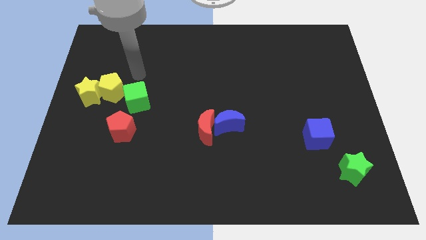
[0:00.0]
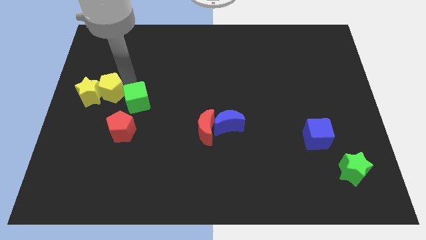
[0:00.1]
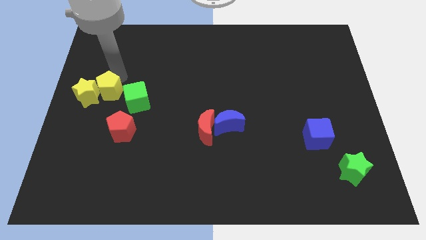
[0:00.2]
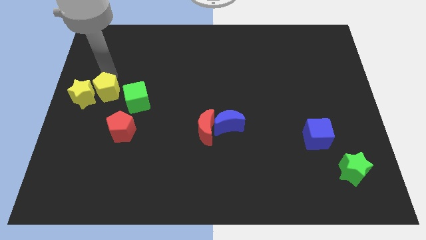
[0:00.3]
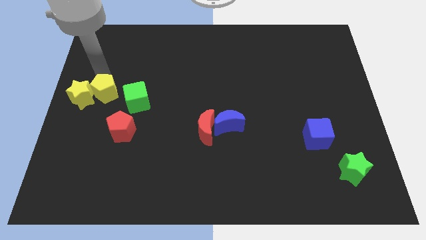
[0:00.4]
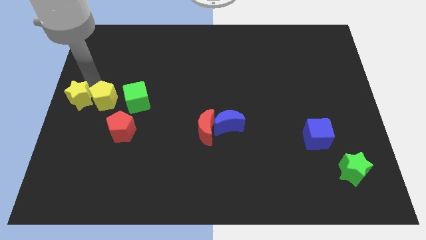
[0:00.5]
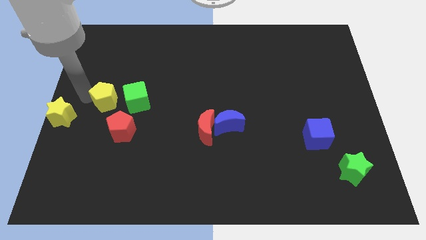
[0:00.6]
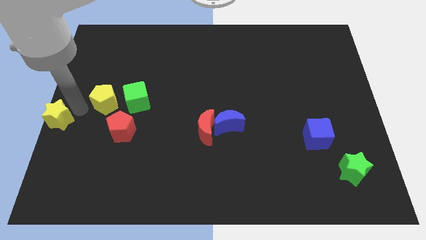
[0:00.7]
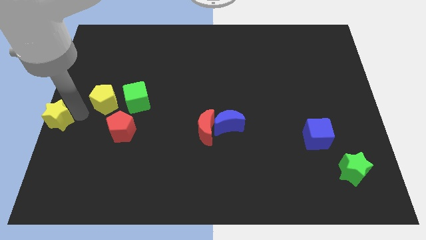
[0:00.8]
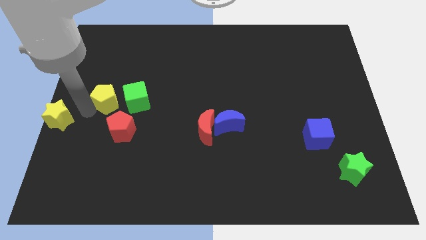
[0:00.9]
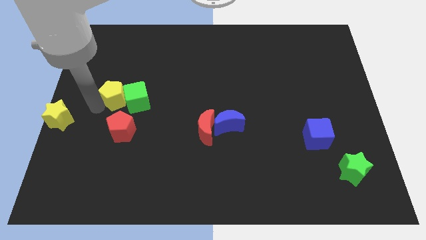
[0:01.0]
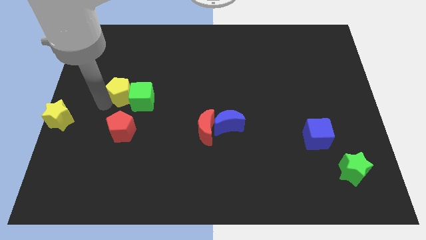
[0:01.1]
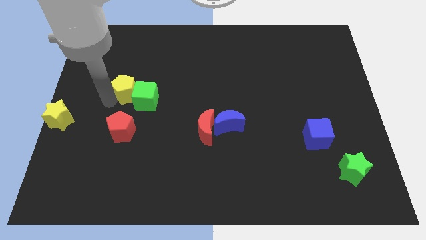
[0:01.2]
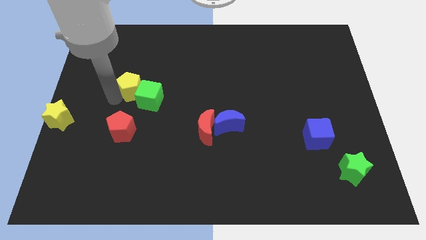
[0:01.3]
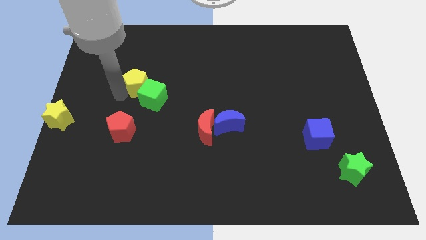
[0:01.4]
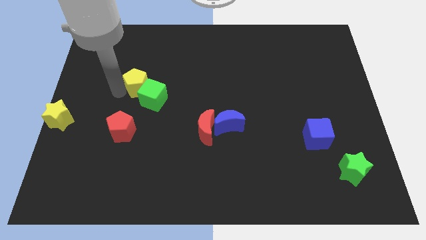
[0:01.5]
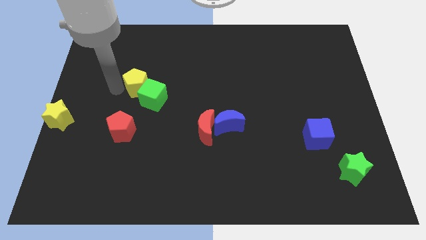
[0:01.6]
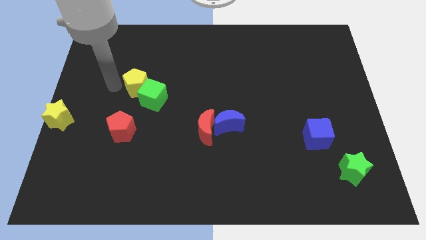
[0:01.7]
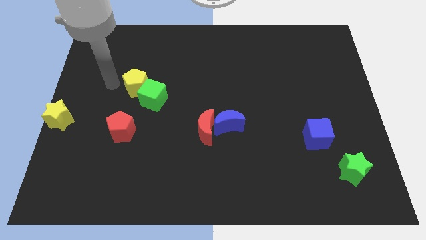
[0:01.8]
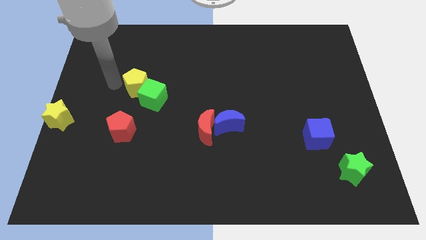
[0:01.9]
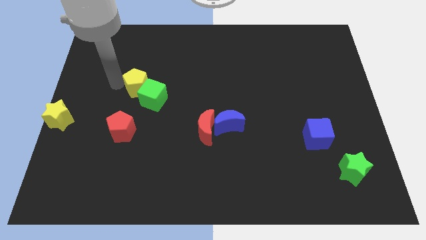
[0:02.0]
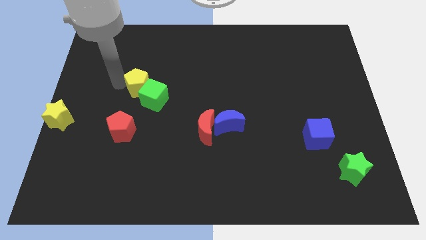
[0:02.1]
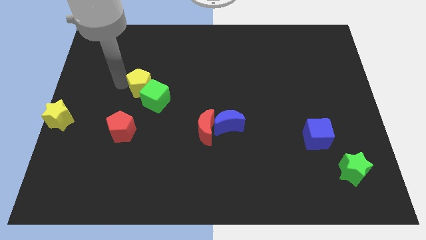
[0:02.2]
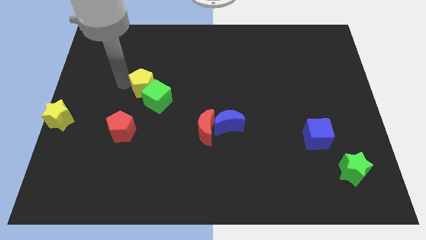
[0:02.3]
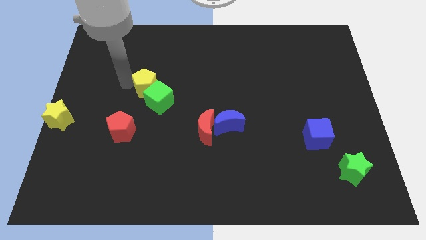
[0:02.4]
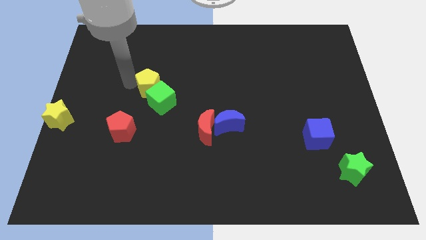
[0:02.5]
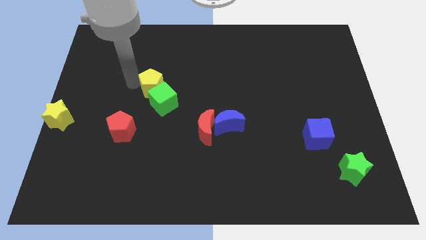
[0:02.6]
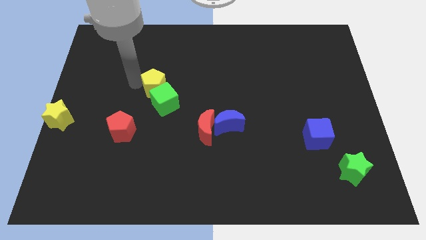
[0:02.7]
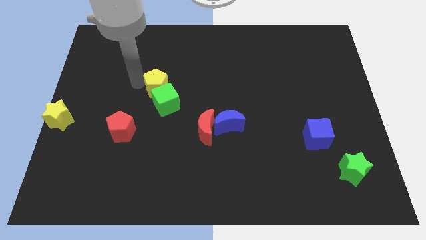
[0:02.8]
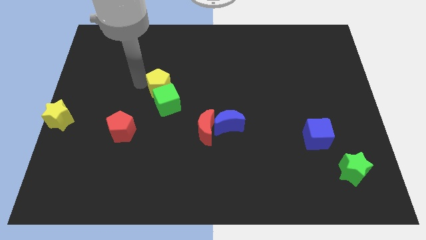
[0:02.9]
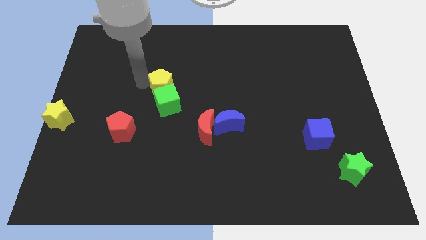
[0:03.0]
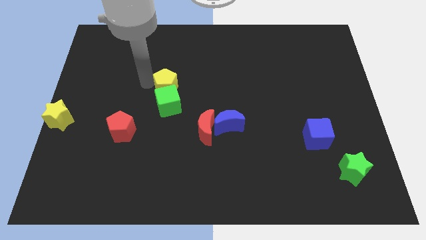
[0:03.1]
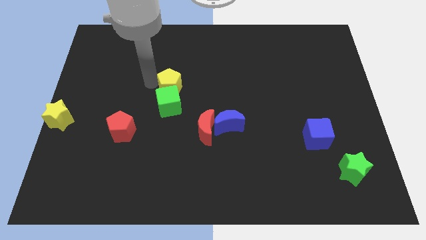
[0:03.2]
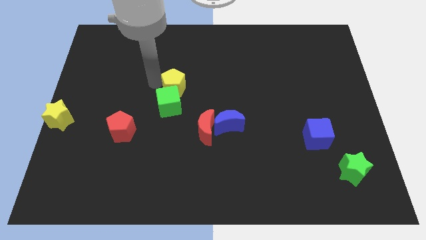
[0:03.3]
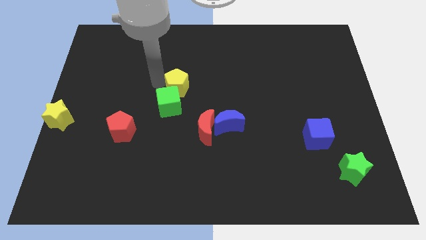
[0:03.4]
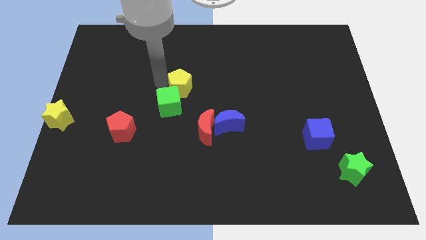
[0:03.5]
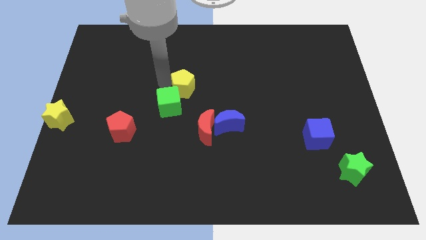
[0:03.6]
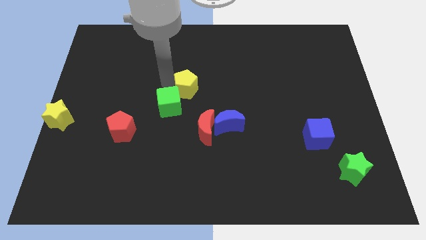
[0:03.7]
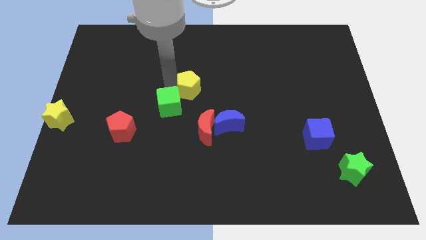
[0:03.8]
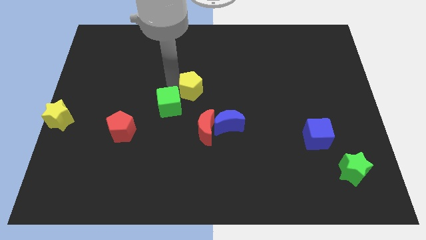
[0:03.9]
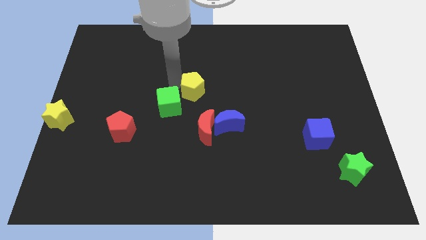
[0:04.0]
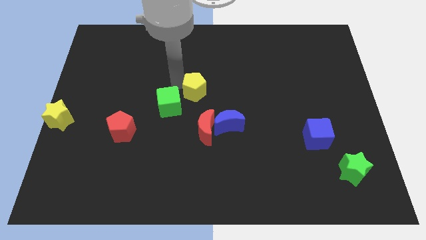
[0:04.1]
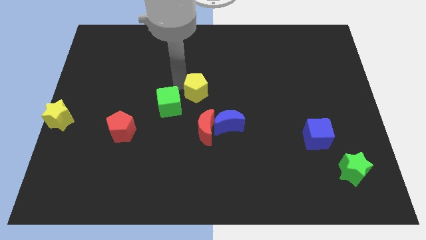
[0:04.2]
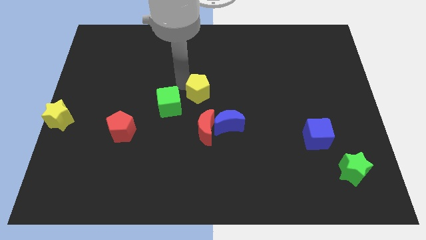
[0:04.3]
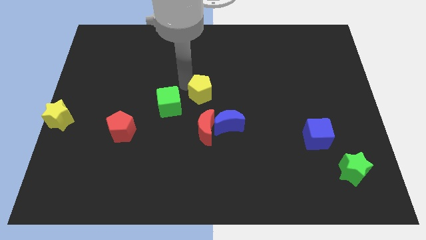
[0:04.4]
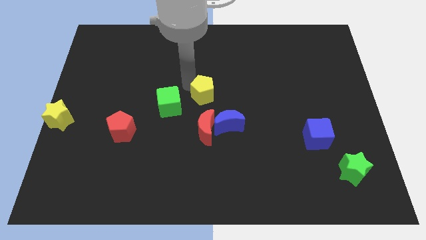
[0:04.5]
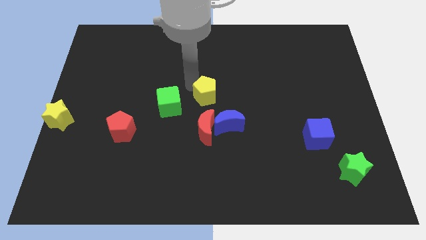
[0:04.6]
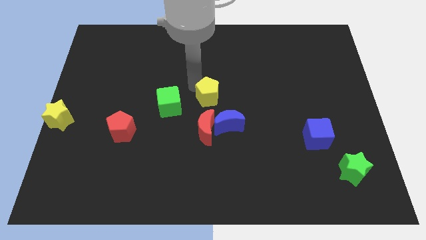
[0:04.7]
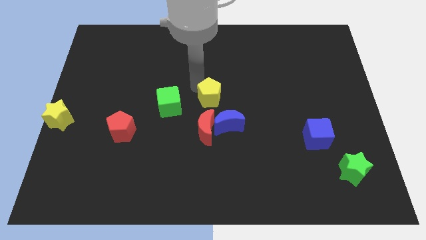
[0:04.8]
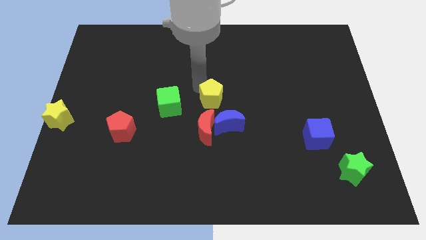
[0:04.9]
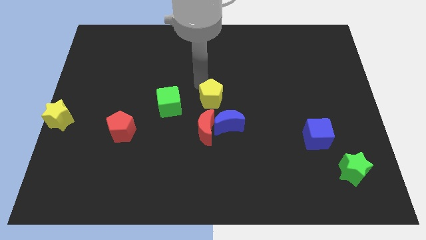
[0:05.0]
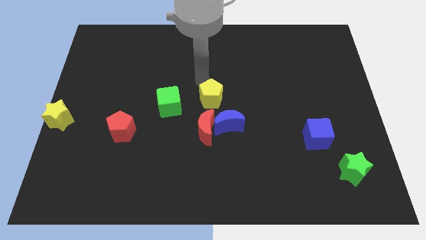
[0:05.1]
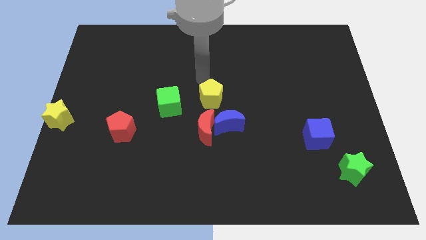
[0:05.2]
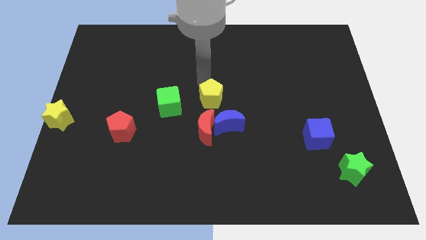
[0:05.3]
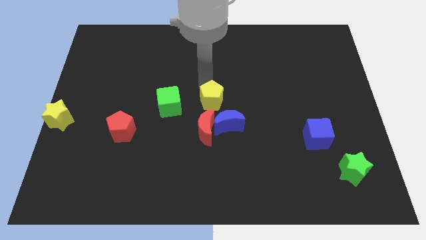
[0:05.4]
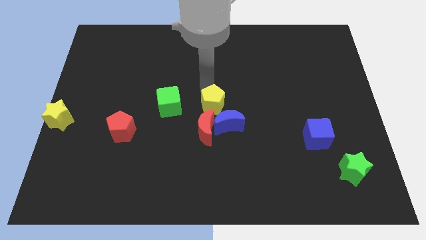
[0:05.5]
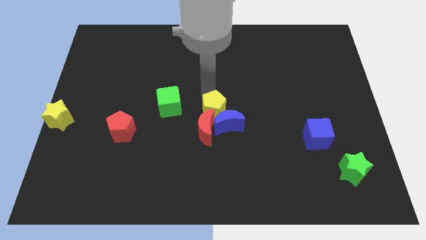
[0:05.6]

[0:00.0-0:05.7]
push the yellow pentagon close to the blue moon

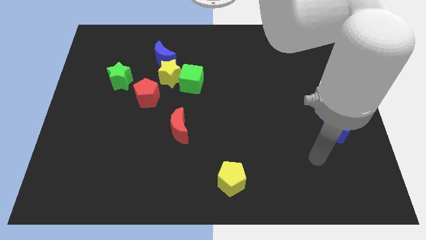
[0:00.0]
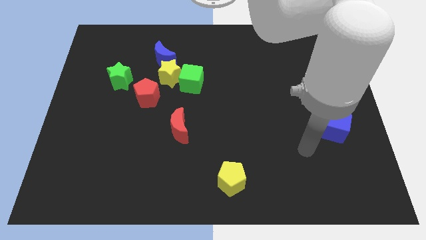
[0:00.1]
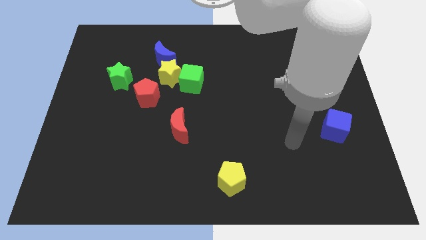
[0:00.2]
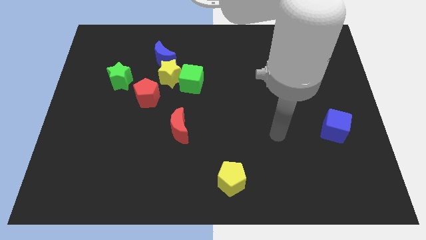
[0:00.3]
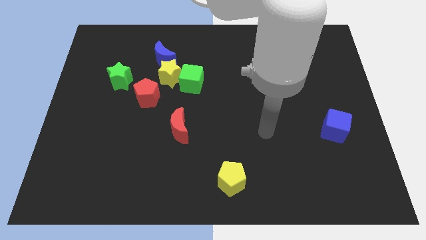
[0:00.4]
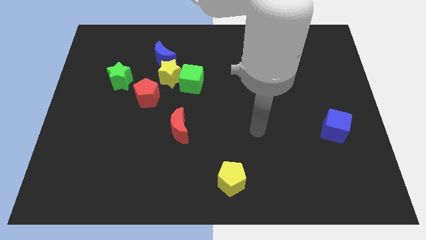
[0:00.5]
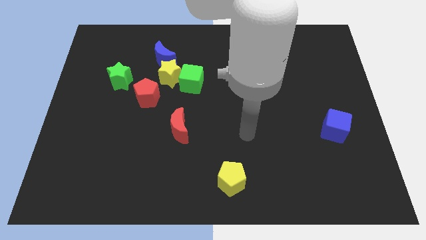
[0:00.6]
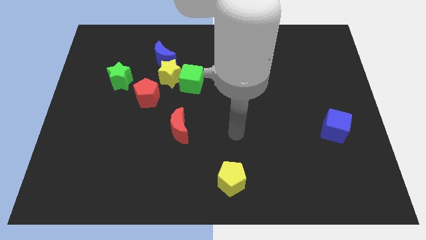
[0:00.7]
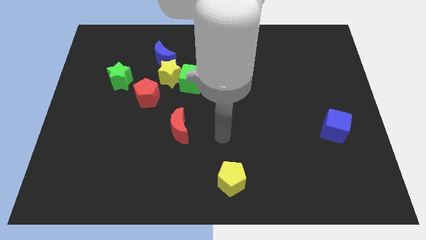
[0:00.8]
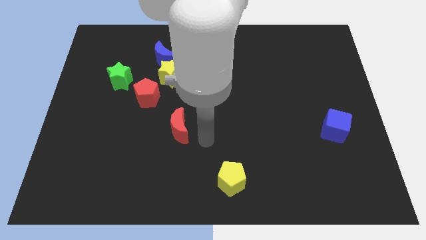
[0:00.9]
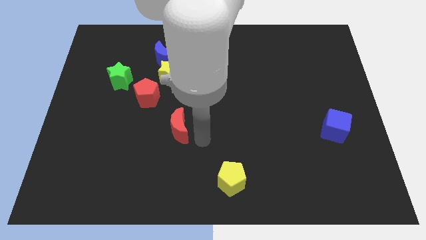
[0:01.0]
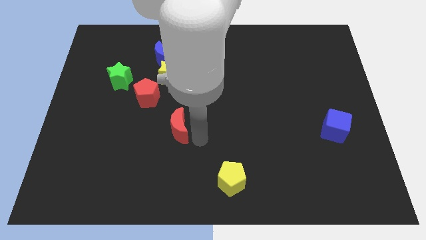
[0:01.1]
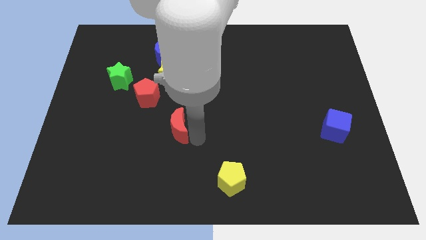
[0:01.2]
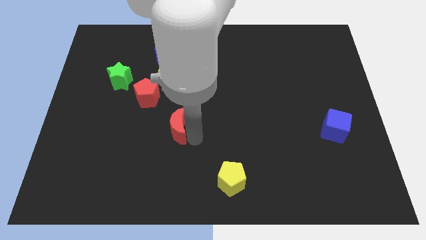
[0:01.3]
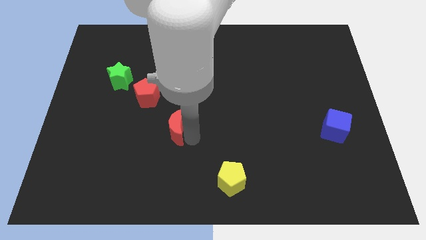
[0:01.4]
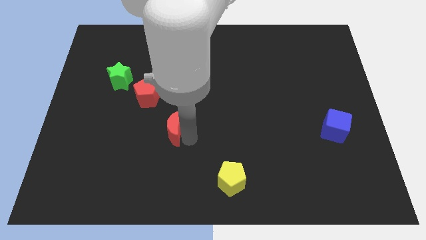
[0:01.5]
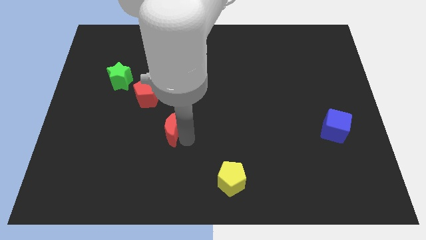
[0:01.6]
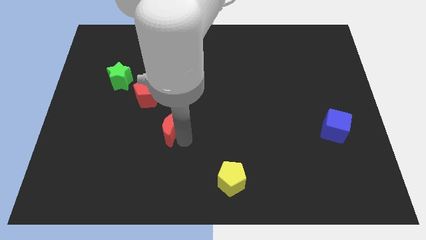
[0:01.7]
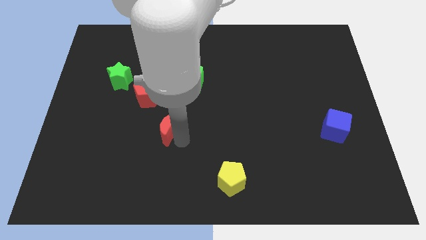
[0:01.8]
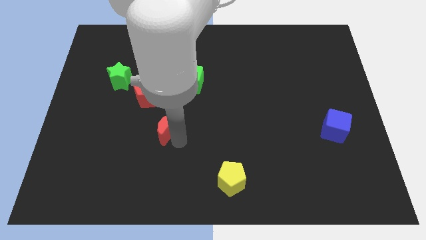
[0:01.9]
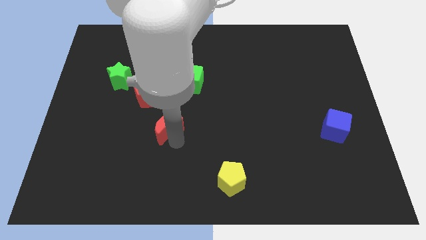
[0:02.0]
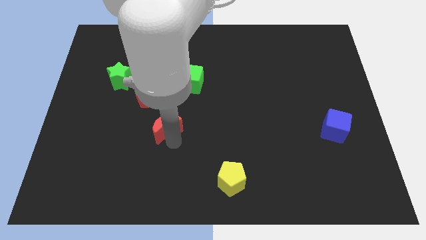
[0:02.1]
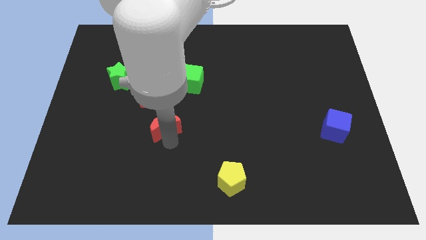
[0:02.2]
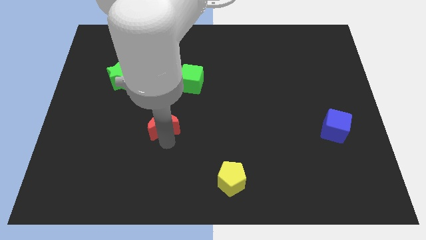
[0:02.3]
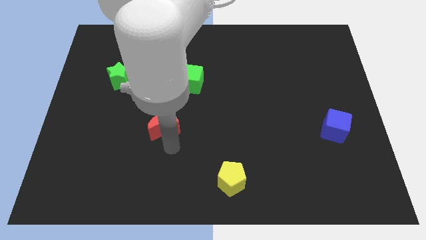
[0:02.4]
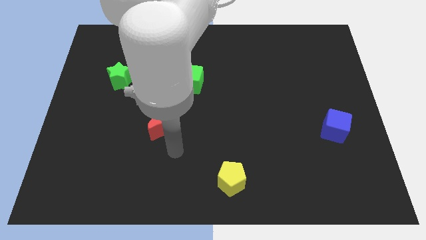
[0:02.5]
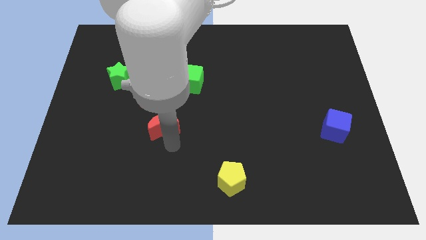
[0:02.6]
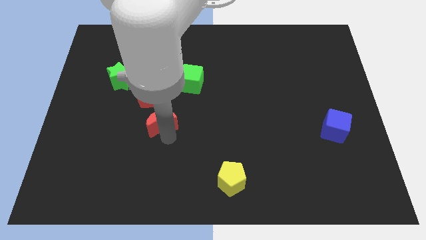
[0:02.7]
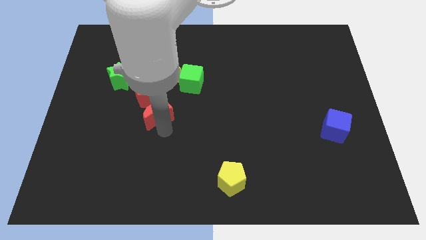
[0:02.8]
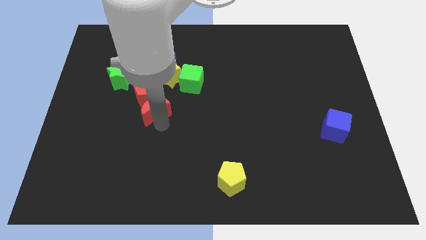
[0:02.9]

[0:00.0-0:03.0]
slide the red moon towards the red pentagon
